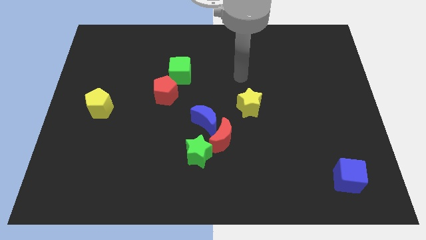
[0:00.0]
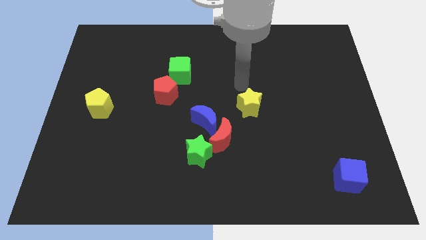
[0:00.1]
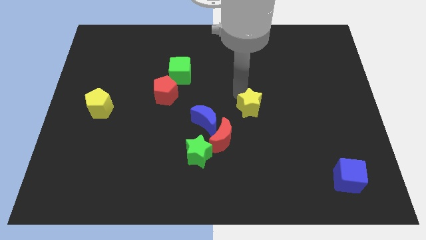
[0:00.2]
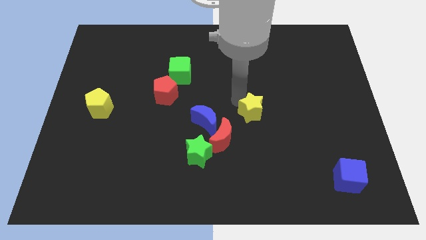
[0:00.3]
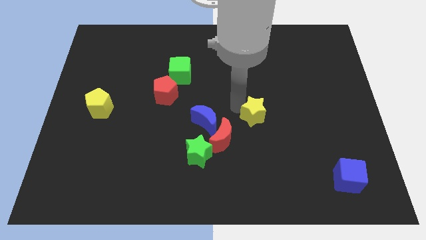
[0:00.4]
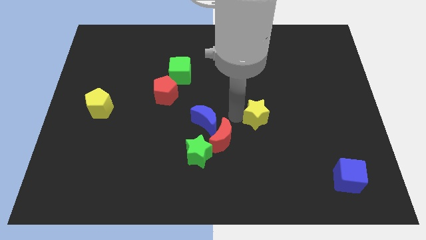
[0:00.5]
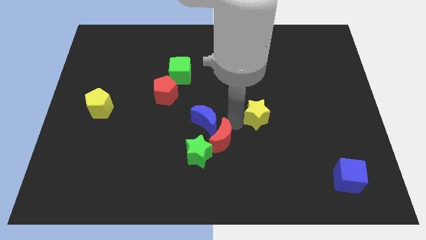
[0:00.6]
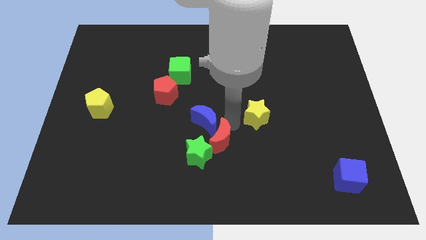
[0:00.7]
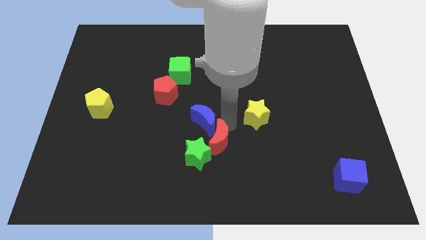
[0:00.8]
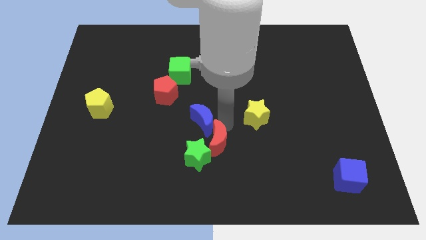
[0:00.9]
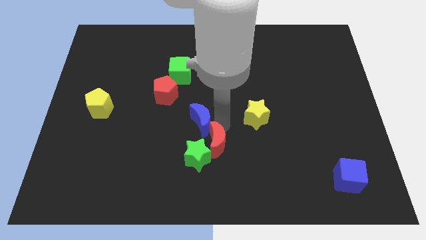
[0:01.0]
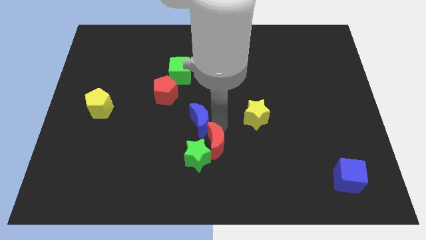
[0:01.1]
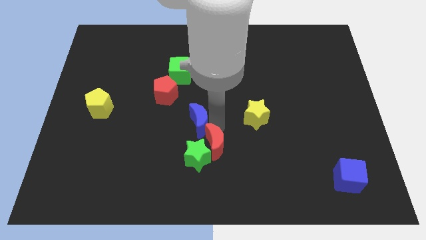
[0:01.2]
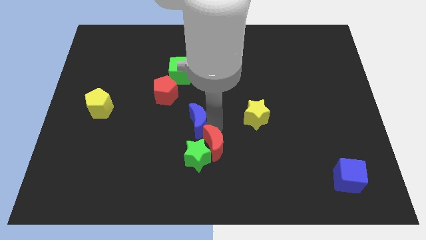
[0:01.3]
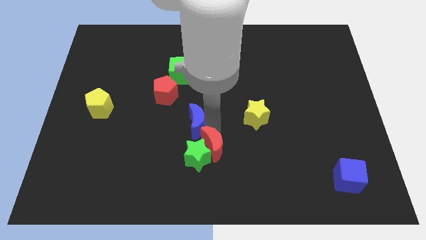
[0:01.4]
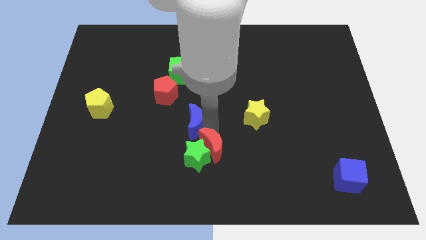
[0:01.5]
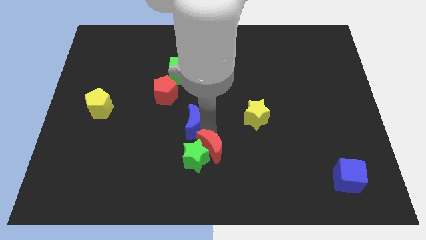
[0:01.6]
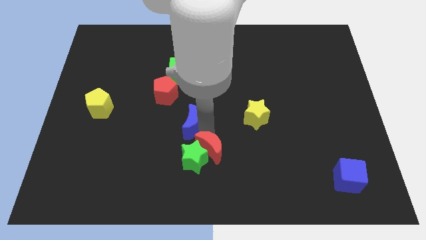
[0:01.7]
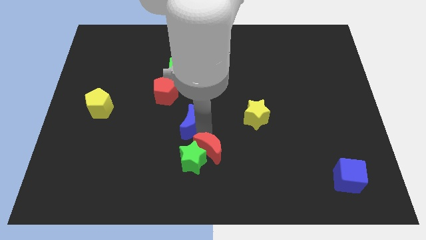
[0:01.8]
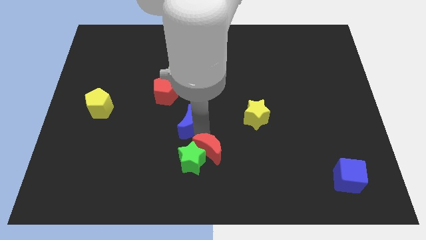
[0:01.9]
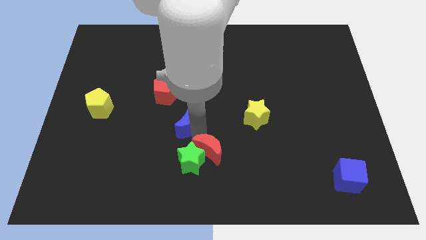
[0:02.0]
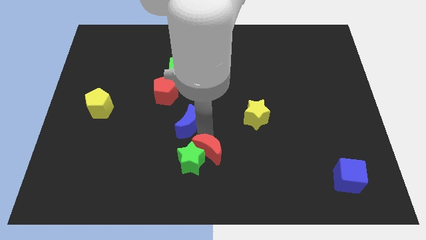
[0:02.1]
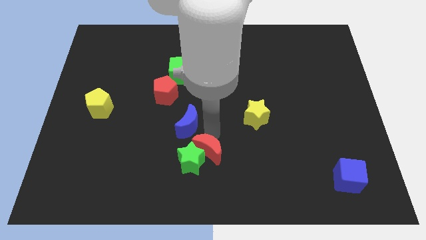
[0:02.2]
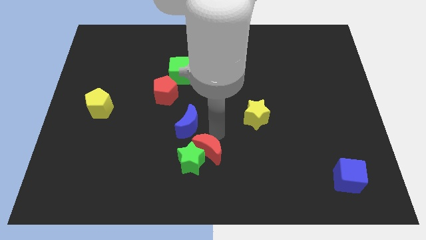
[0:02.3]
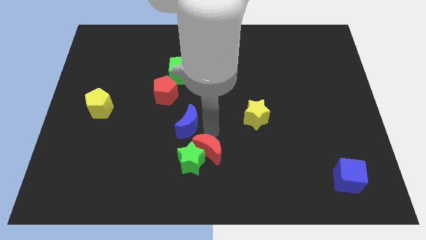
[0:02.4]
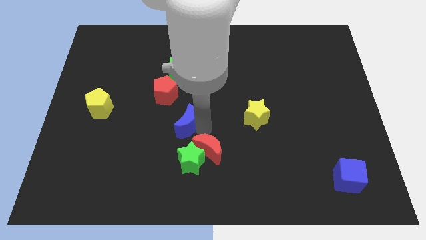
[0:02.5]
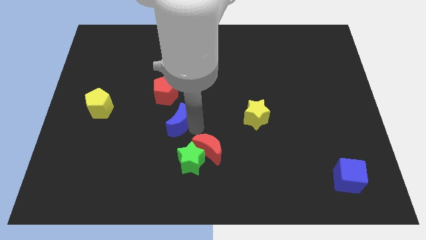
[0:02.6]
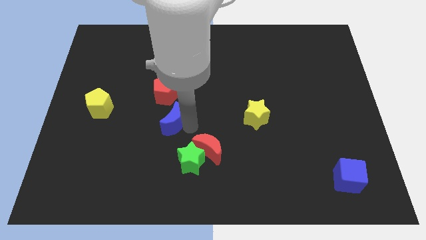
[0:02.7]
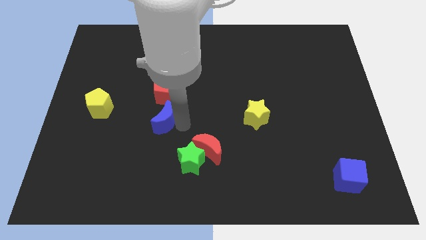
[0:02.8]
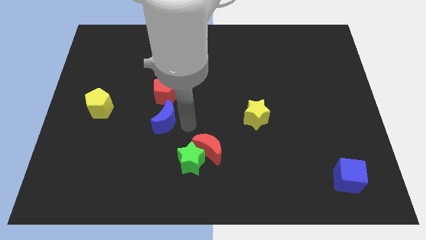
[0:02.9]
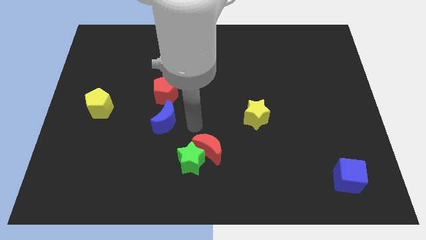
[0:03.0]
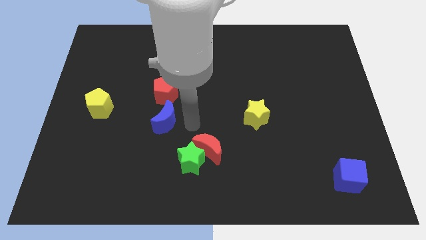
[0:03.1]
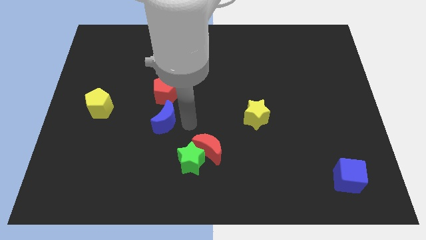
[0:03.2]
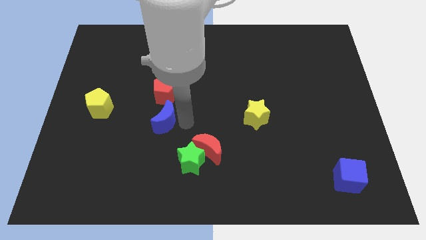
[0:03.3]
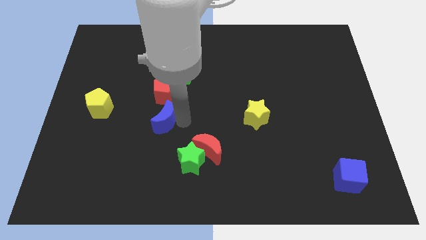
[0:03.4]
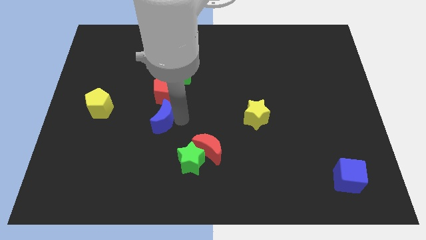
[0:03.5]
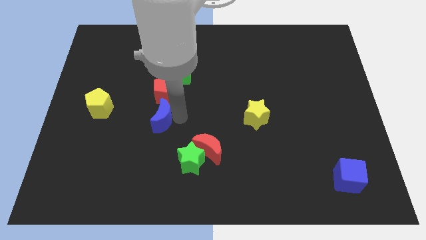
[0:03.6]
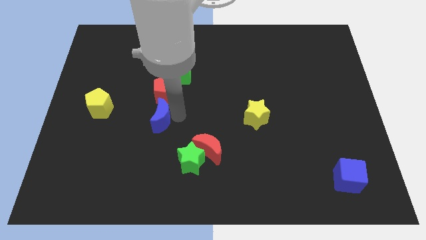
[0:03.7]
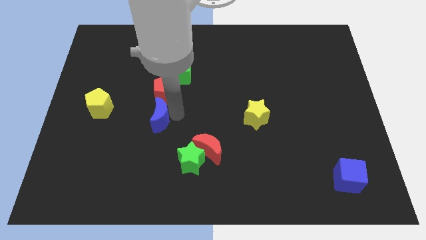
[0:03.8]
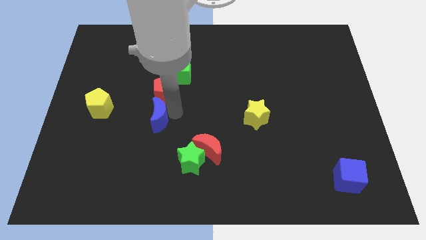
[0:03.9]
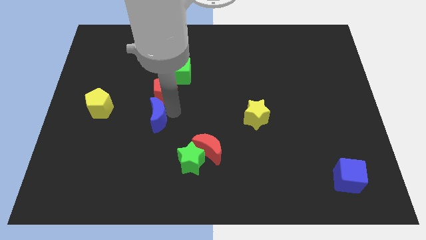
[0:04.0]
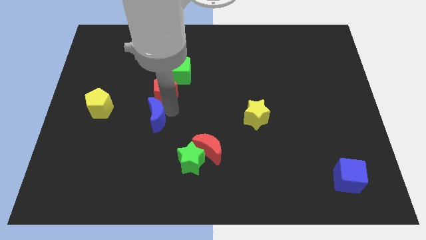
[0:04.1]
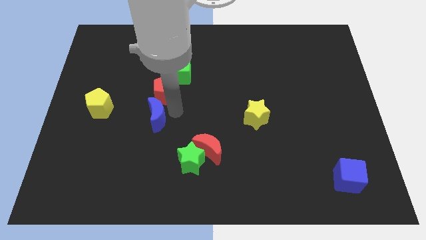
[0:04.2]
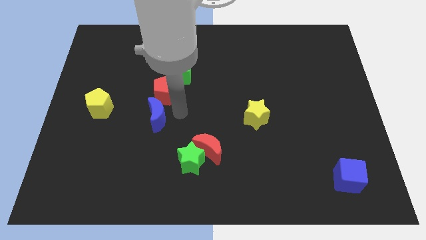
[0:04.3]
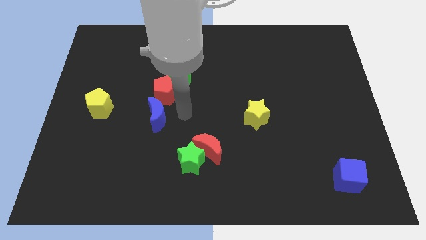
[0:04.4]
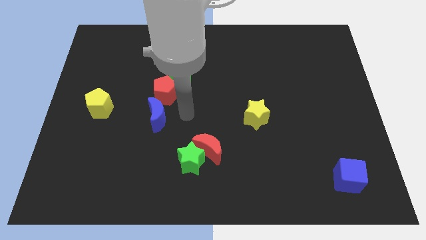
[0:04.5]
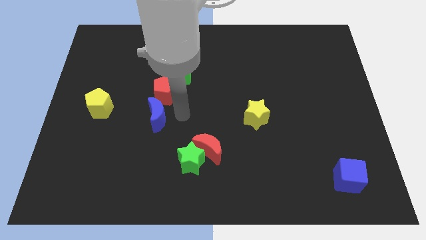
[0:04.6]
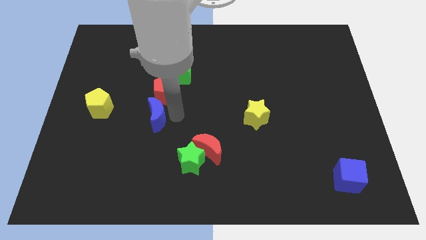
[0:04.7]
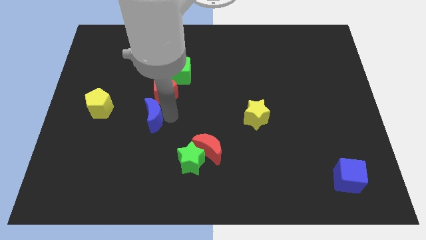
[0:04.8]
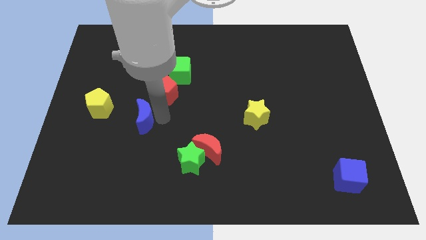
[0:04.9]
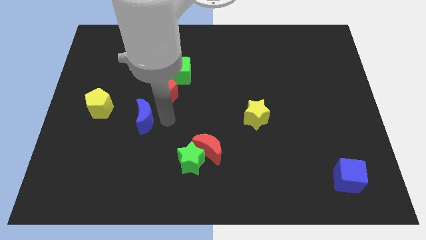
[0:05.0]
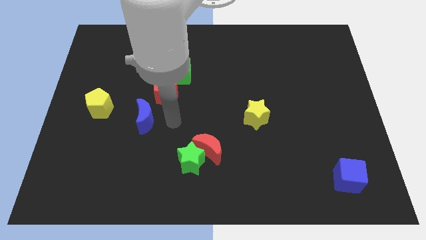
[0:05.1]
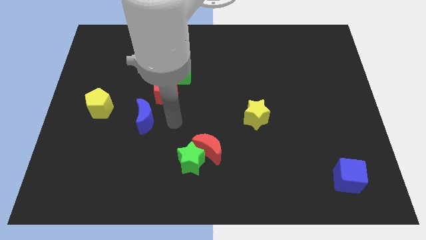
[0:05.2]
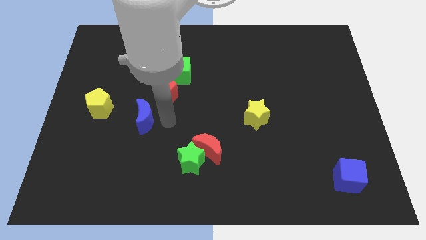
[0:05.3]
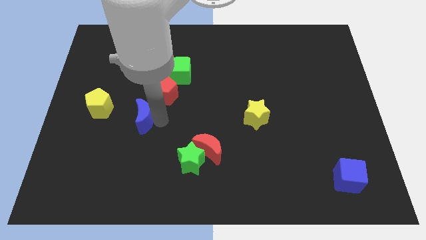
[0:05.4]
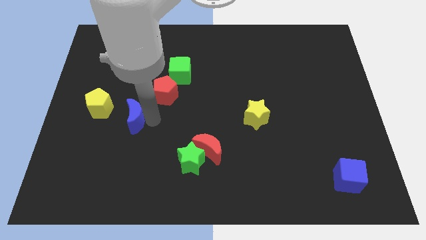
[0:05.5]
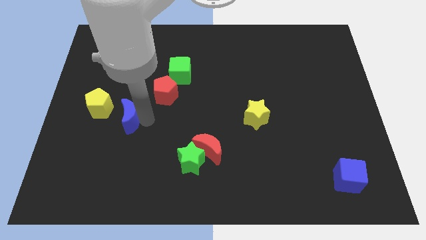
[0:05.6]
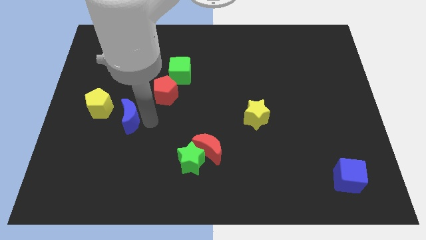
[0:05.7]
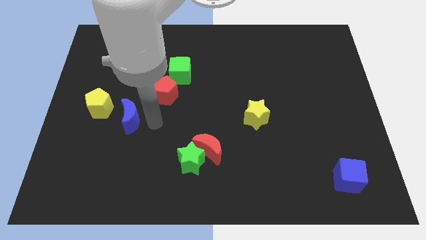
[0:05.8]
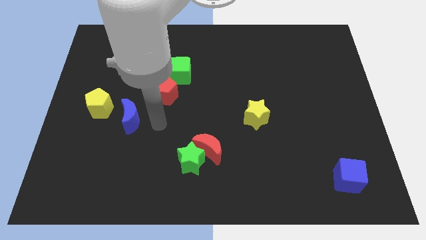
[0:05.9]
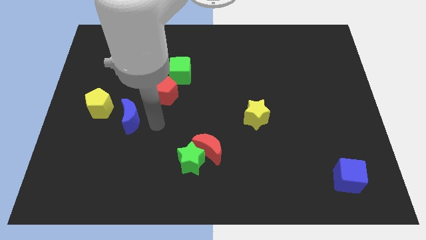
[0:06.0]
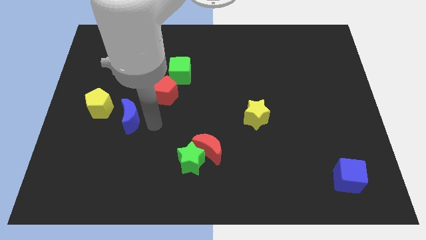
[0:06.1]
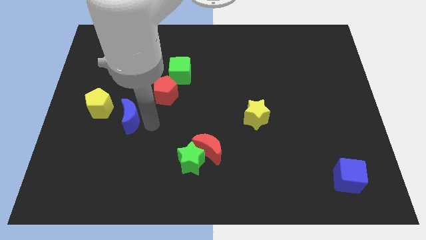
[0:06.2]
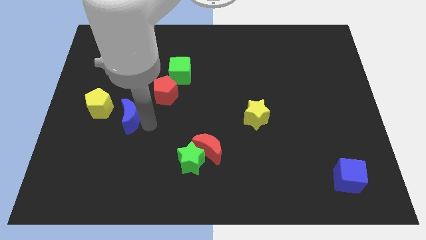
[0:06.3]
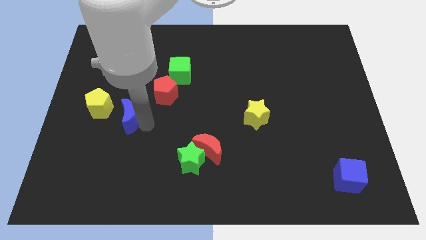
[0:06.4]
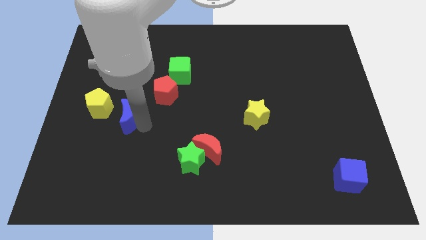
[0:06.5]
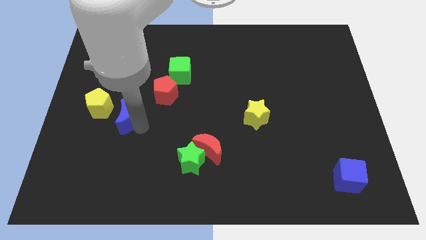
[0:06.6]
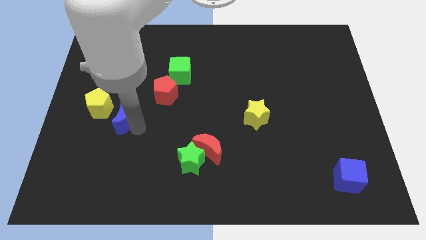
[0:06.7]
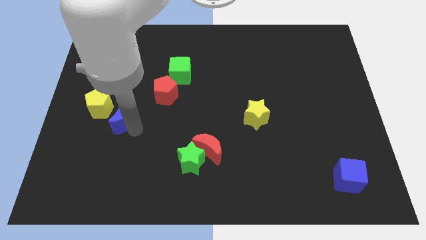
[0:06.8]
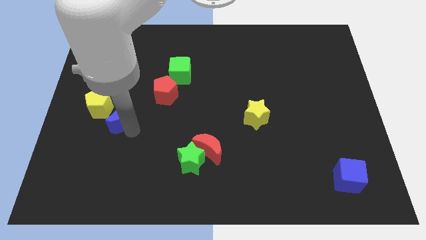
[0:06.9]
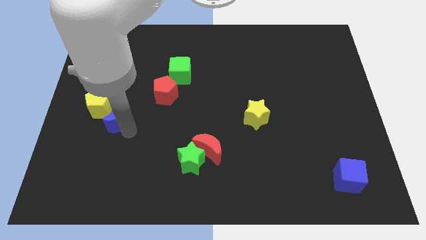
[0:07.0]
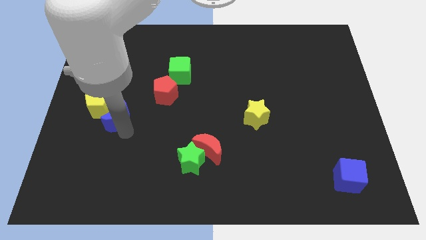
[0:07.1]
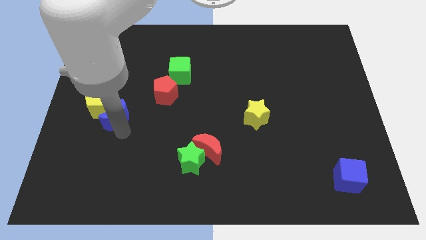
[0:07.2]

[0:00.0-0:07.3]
push the blue moon to the yellow pentagon

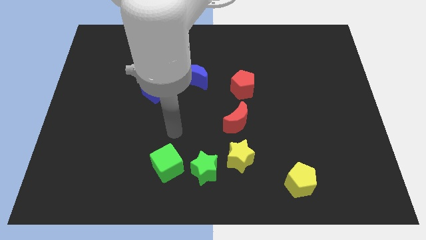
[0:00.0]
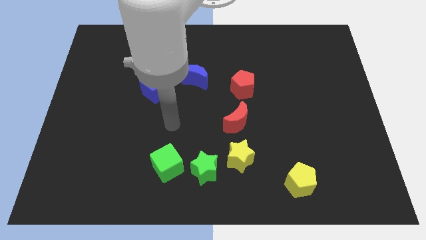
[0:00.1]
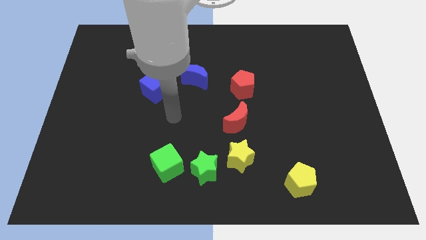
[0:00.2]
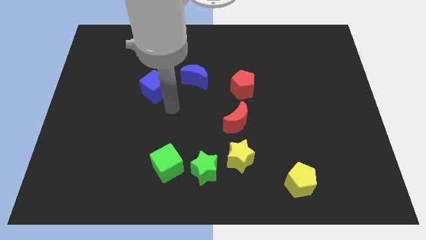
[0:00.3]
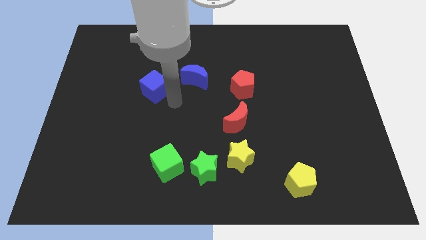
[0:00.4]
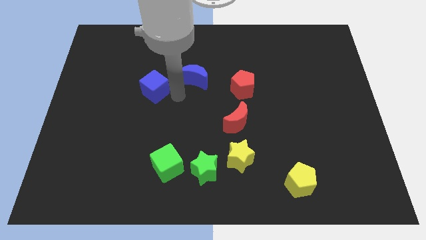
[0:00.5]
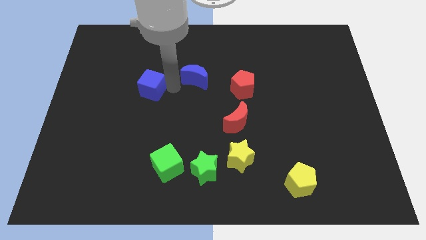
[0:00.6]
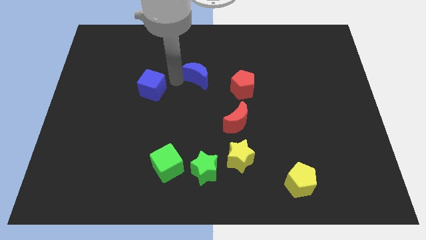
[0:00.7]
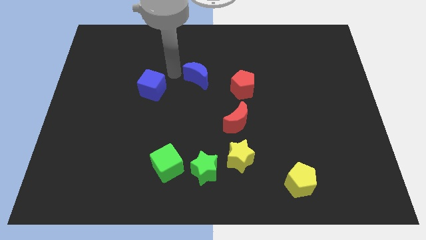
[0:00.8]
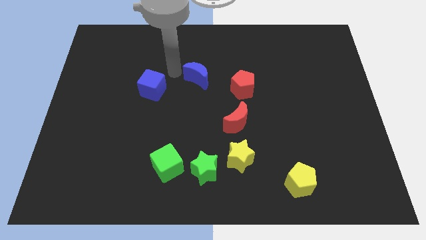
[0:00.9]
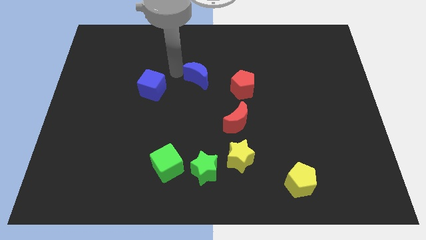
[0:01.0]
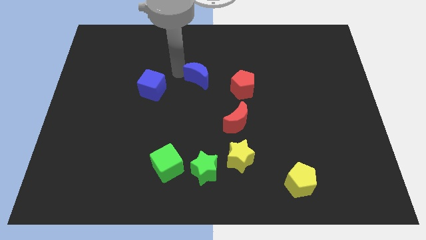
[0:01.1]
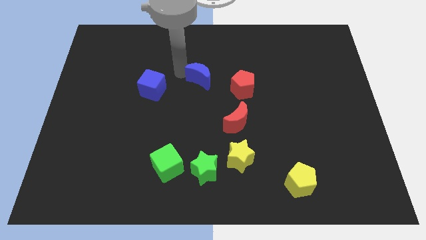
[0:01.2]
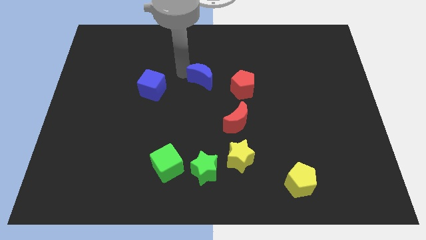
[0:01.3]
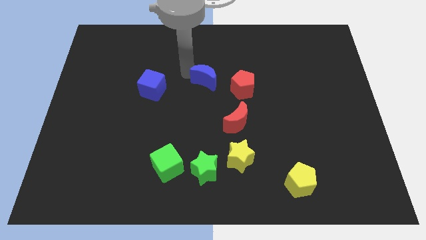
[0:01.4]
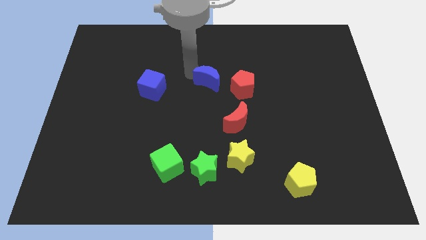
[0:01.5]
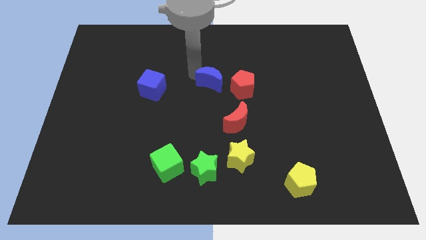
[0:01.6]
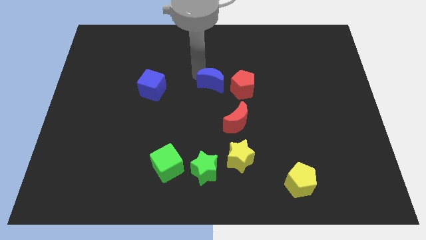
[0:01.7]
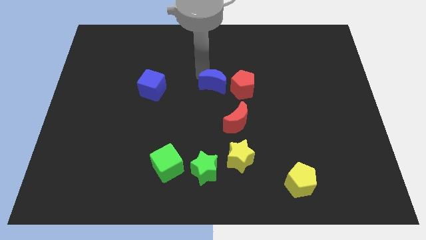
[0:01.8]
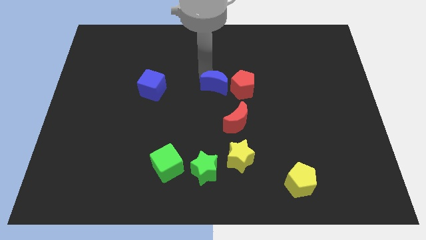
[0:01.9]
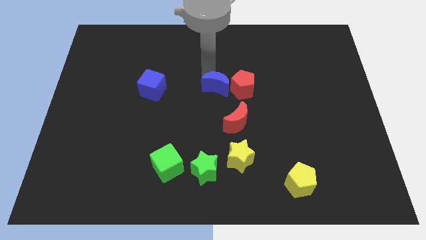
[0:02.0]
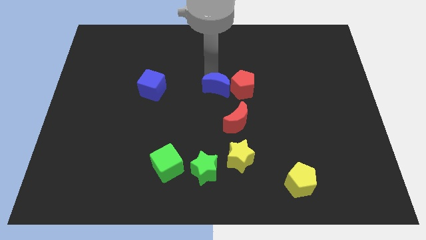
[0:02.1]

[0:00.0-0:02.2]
move the blue moon towards the red pentagon
